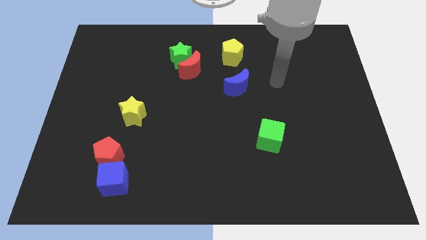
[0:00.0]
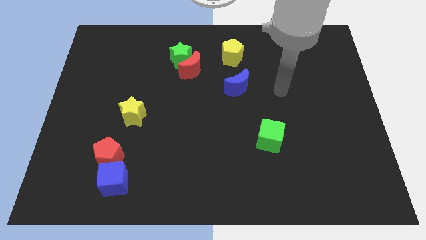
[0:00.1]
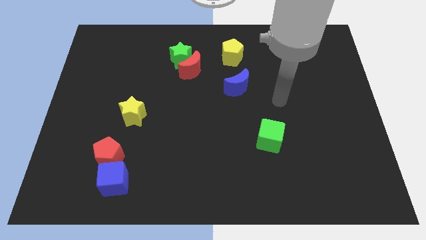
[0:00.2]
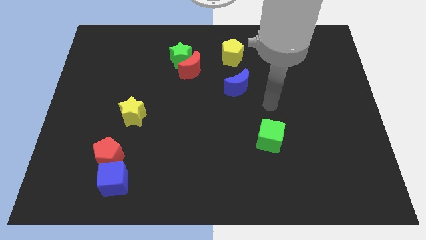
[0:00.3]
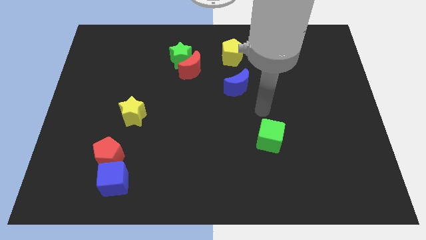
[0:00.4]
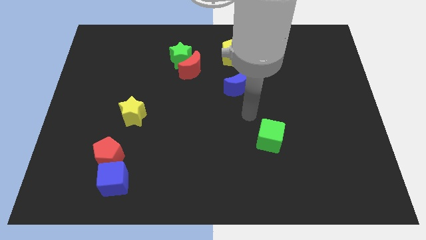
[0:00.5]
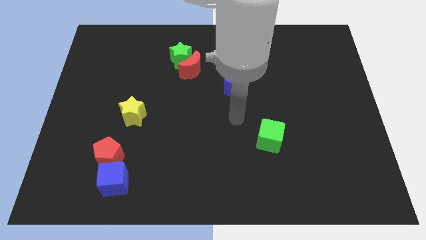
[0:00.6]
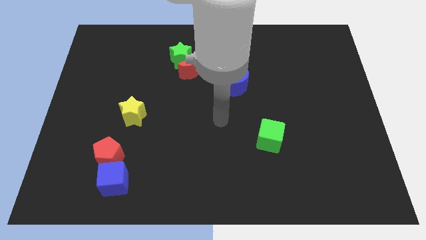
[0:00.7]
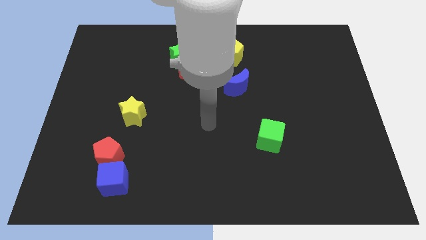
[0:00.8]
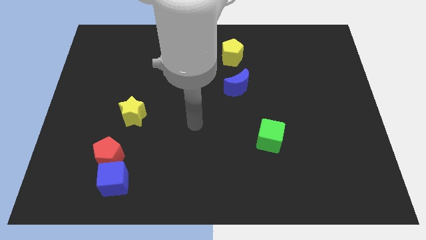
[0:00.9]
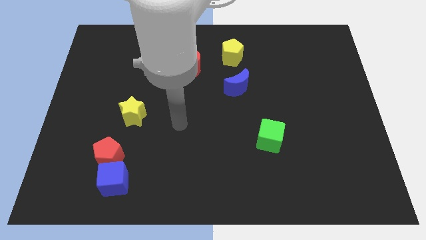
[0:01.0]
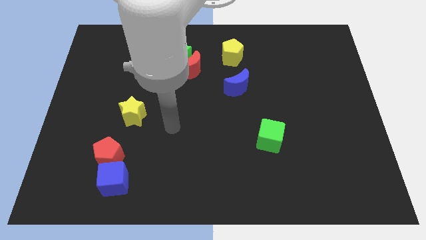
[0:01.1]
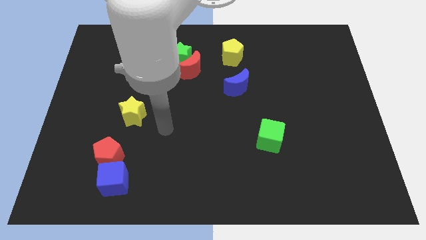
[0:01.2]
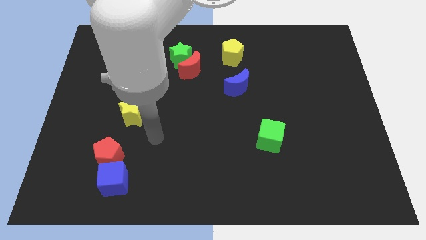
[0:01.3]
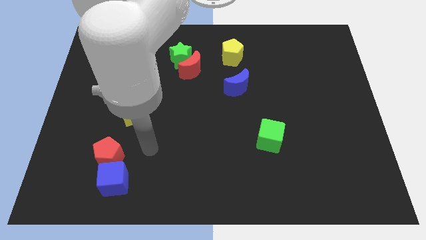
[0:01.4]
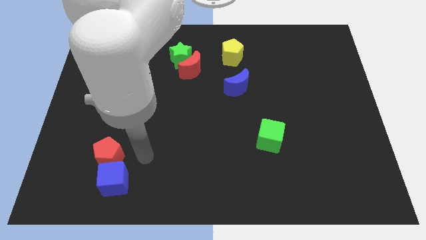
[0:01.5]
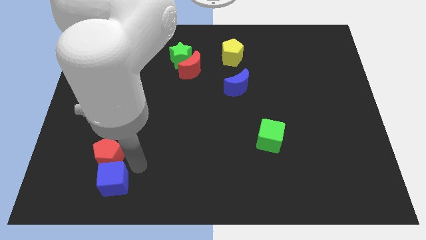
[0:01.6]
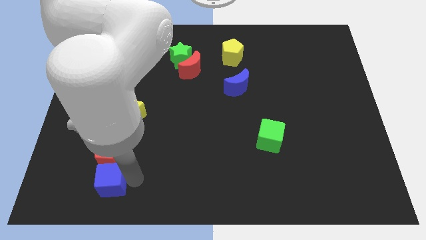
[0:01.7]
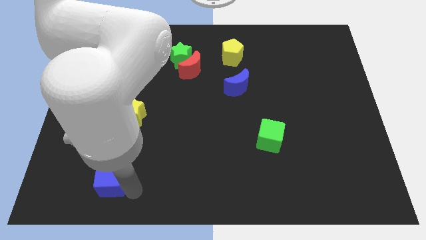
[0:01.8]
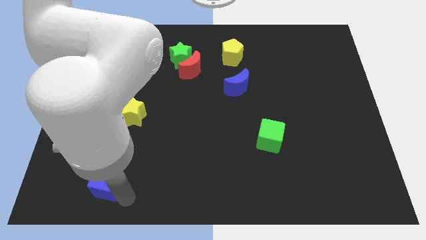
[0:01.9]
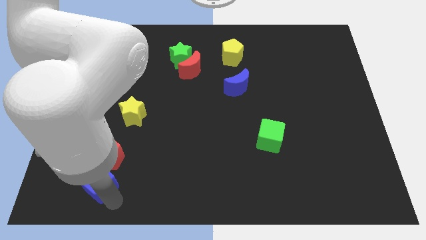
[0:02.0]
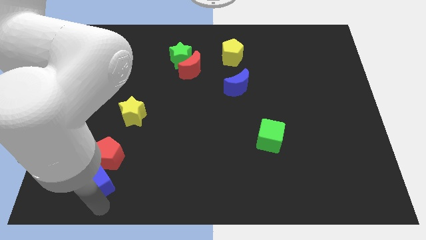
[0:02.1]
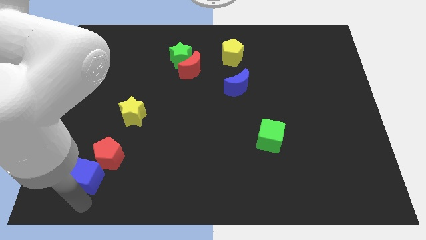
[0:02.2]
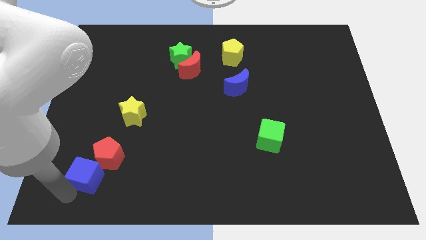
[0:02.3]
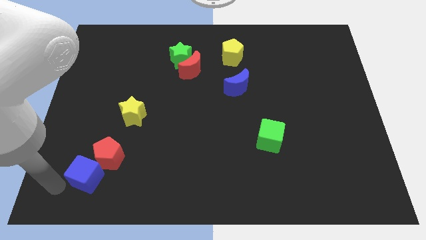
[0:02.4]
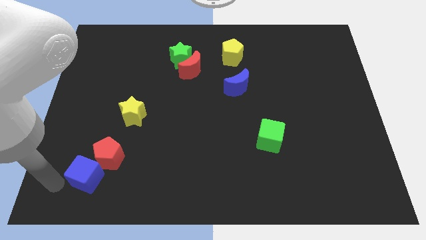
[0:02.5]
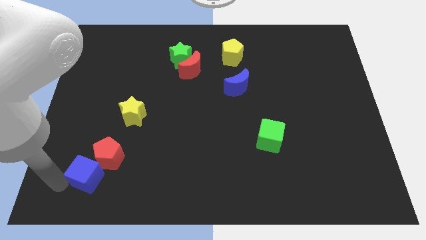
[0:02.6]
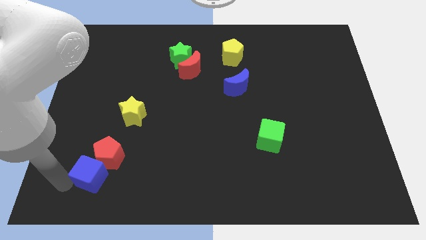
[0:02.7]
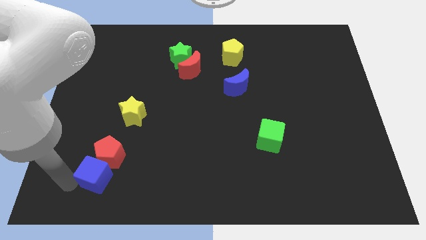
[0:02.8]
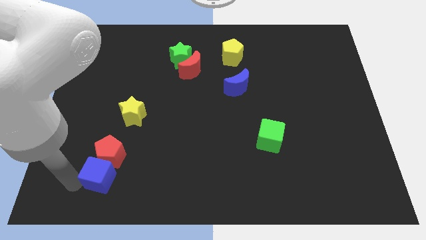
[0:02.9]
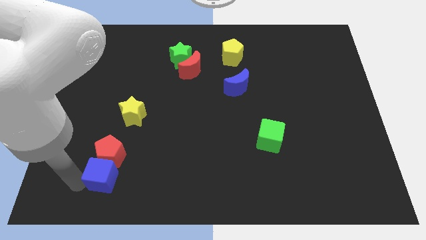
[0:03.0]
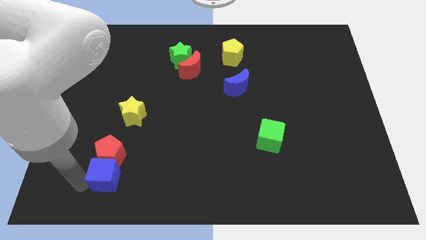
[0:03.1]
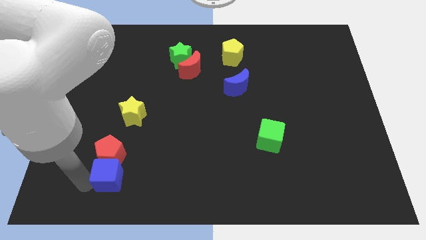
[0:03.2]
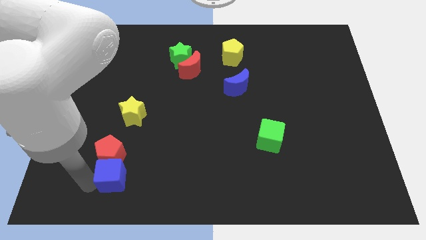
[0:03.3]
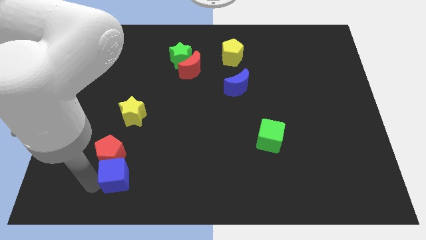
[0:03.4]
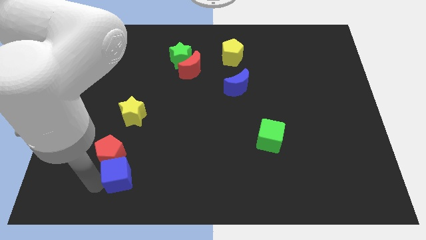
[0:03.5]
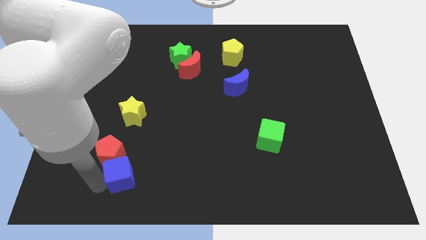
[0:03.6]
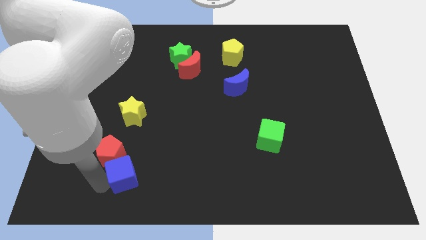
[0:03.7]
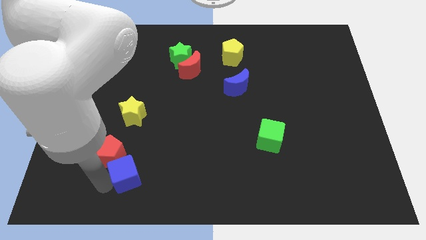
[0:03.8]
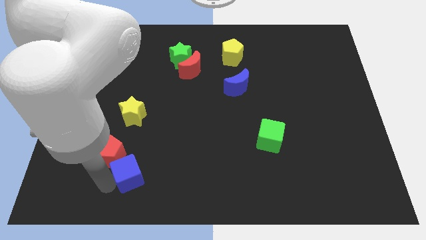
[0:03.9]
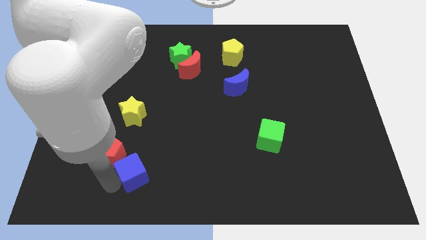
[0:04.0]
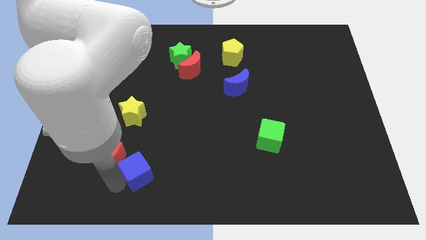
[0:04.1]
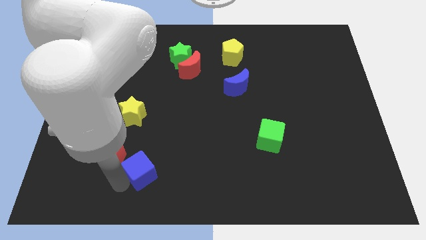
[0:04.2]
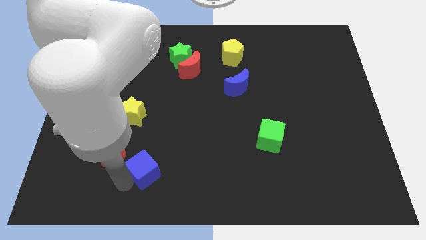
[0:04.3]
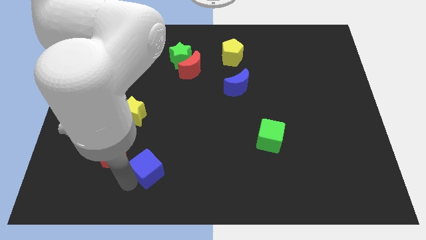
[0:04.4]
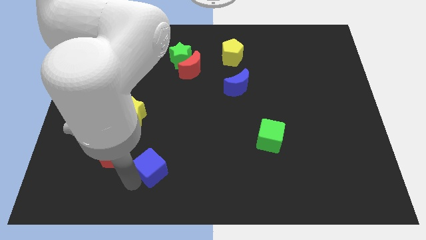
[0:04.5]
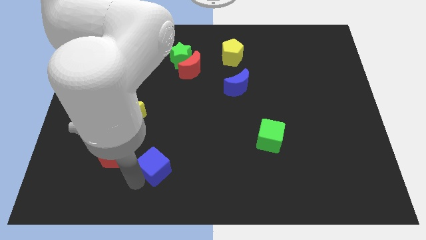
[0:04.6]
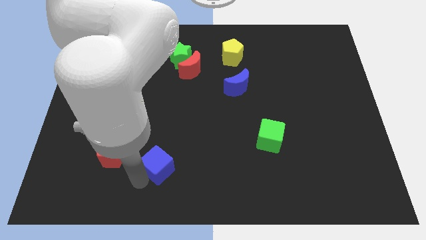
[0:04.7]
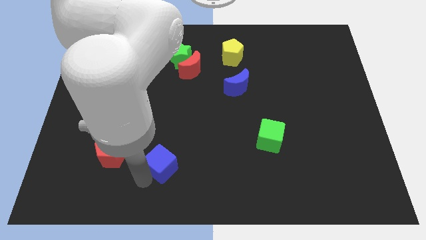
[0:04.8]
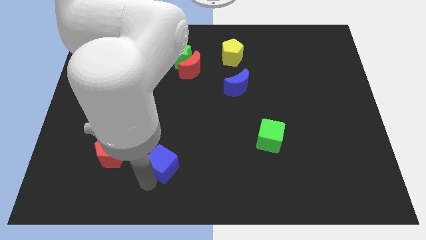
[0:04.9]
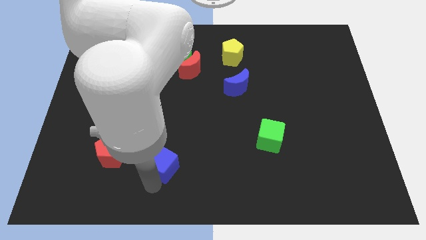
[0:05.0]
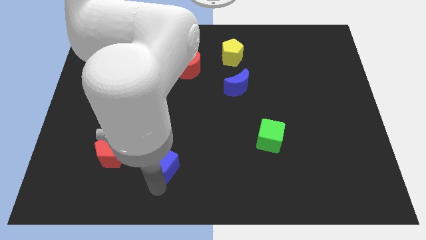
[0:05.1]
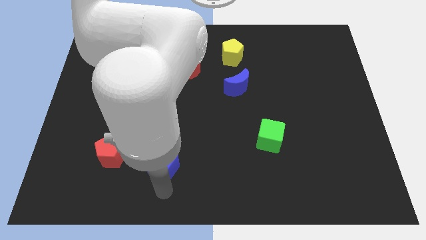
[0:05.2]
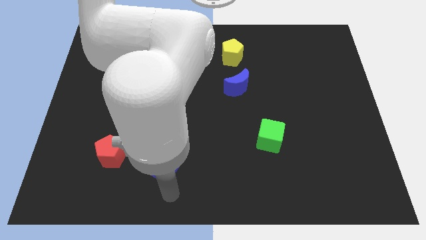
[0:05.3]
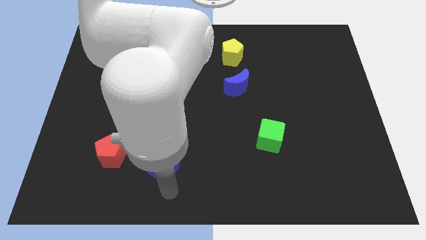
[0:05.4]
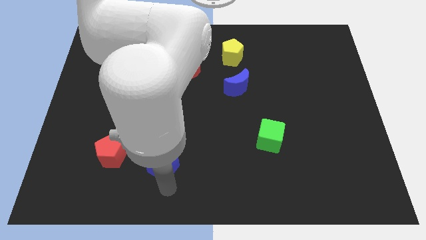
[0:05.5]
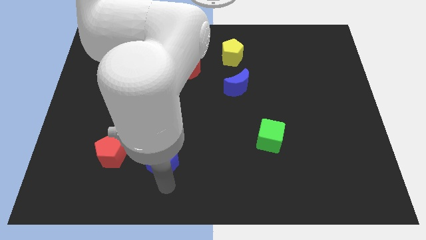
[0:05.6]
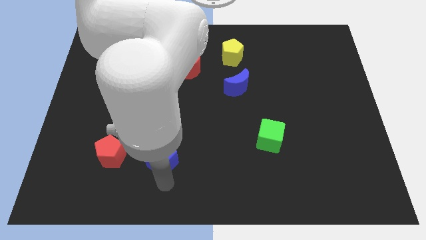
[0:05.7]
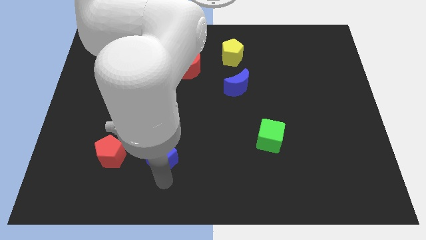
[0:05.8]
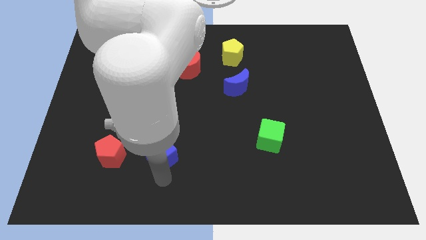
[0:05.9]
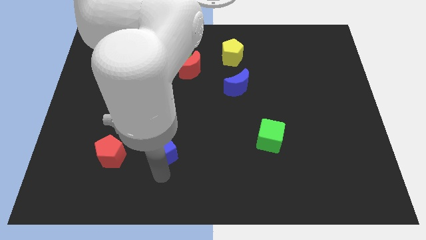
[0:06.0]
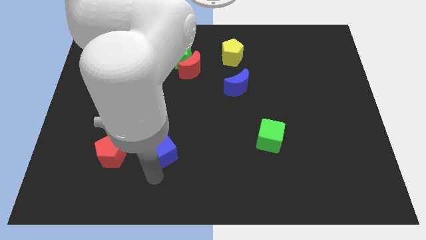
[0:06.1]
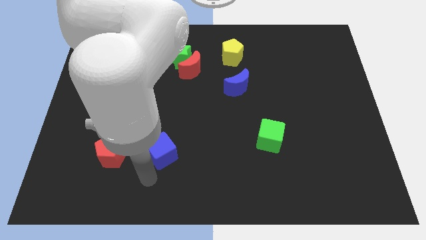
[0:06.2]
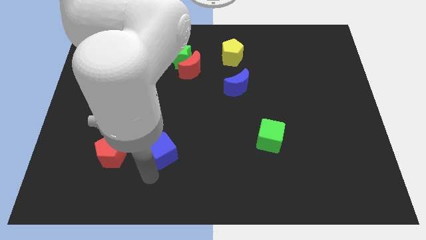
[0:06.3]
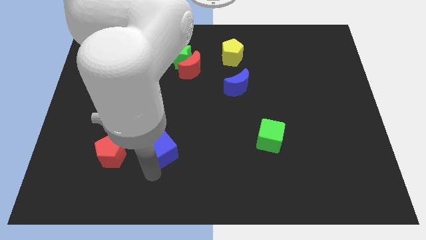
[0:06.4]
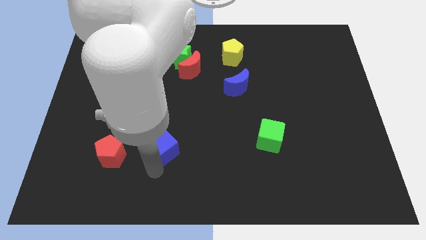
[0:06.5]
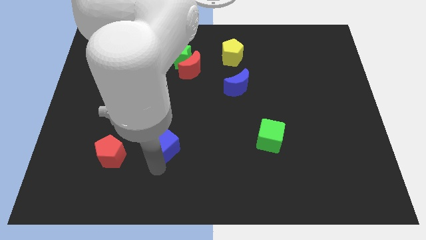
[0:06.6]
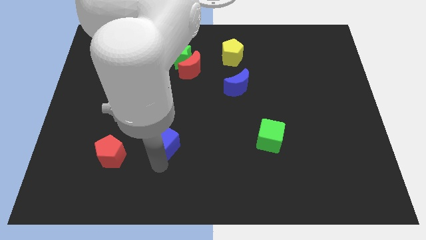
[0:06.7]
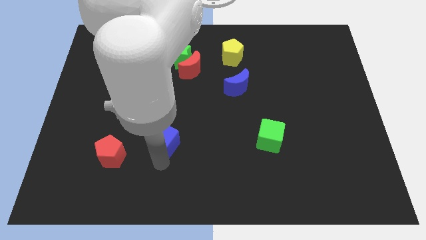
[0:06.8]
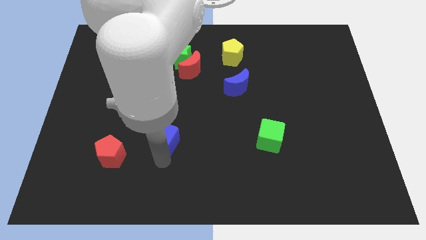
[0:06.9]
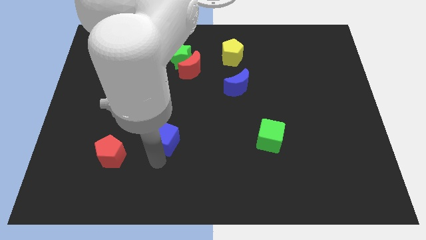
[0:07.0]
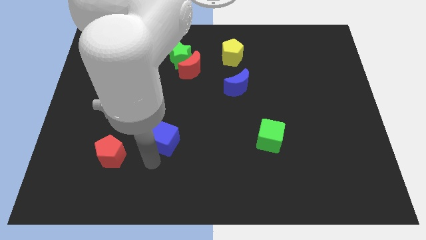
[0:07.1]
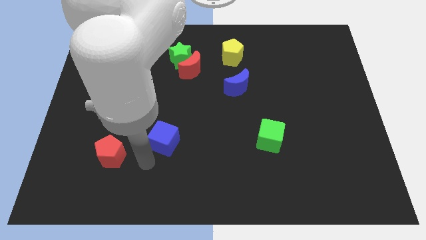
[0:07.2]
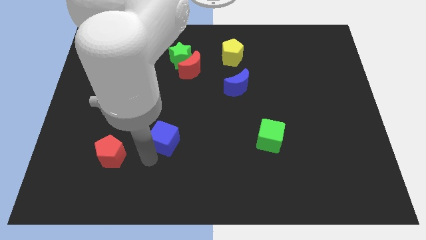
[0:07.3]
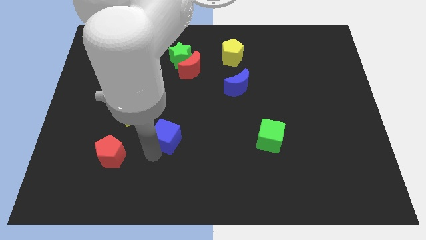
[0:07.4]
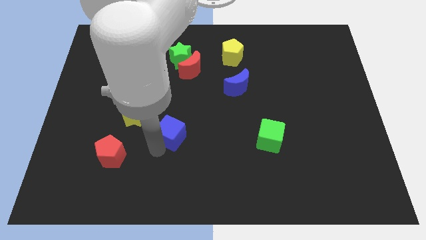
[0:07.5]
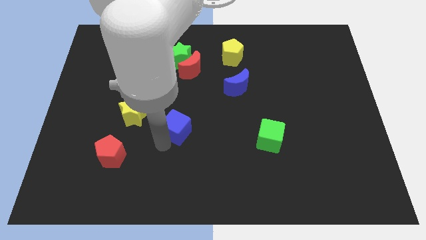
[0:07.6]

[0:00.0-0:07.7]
move the blue cube to the center of the board
